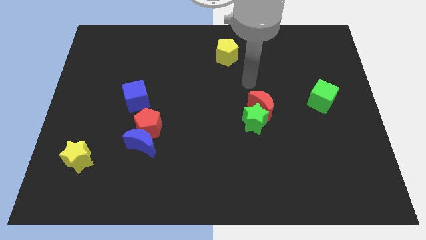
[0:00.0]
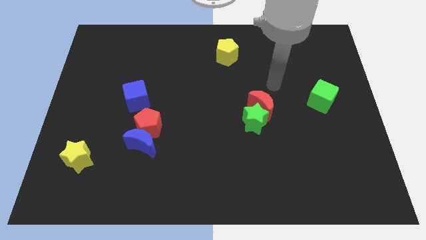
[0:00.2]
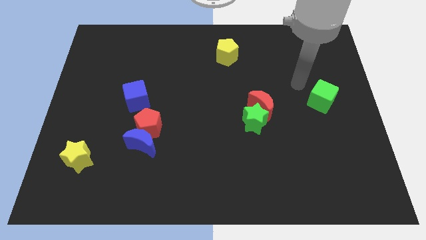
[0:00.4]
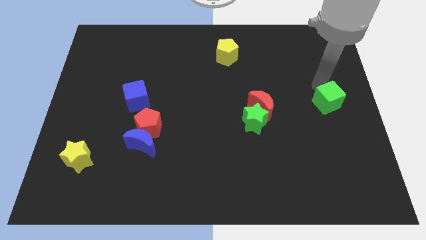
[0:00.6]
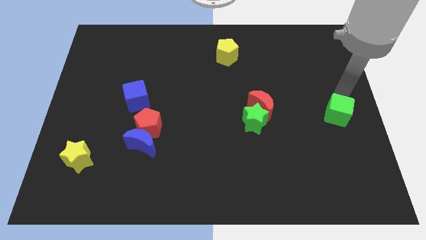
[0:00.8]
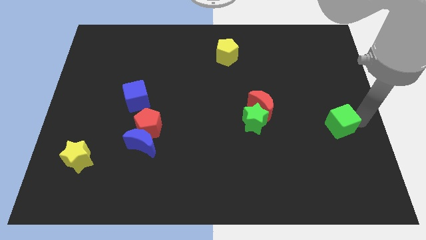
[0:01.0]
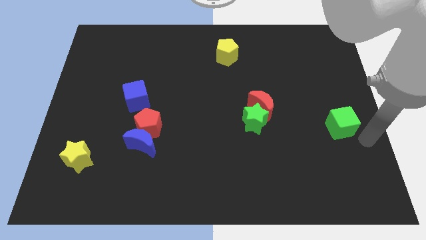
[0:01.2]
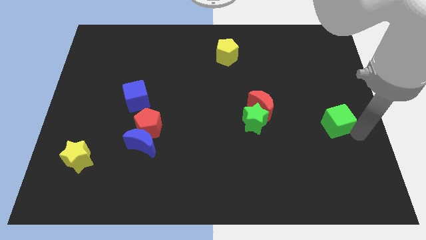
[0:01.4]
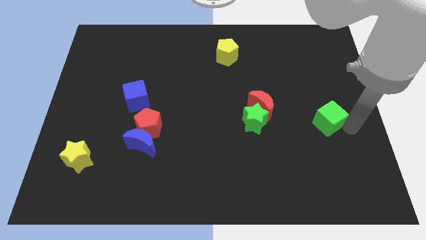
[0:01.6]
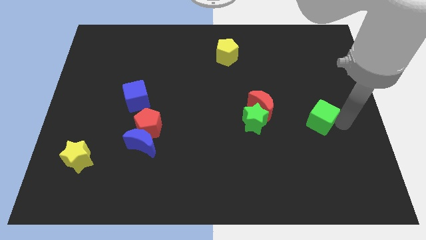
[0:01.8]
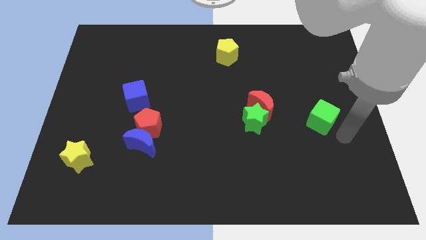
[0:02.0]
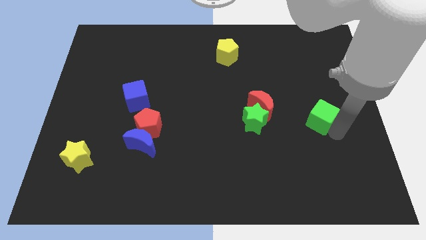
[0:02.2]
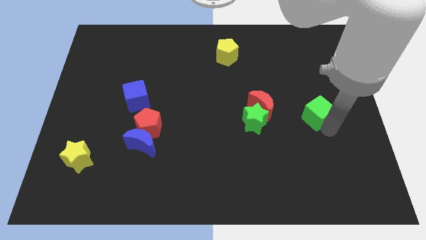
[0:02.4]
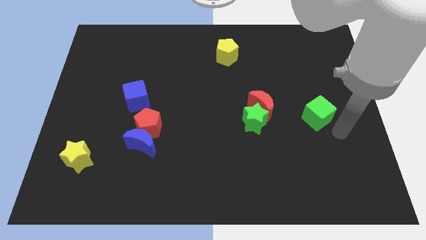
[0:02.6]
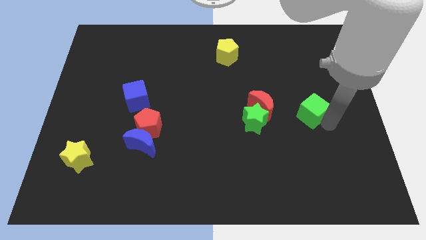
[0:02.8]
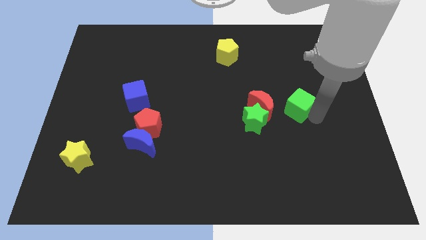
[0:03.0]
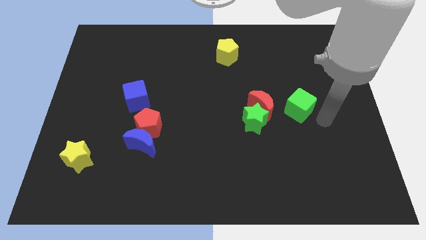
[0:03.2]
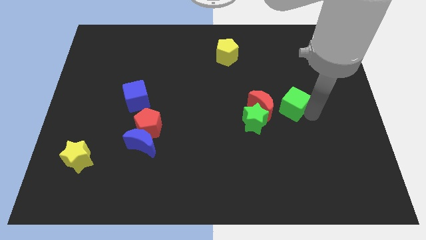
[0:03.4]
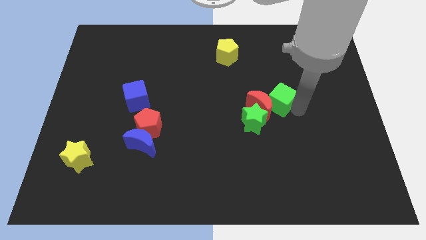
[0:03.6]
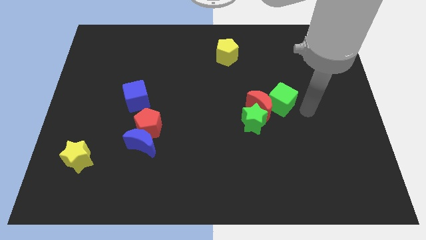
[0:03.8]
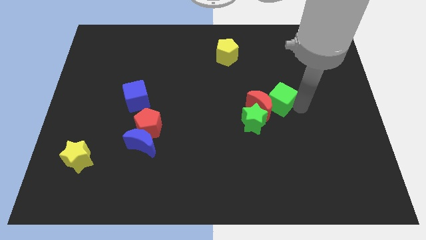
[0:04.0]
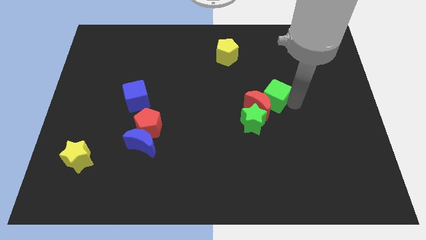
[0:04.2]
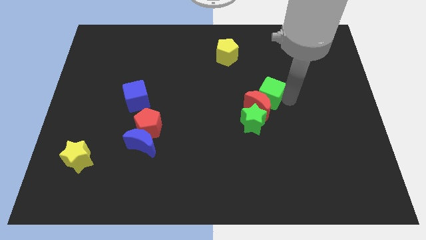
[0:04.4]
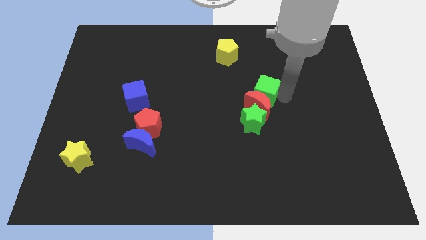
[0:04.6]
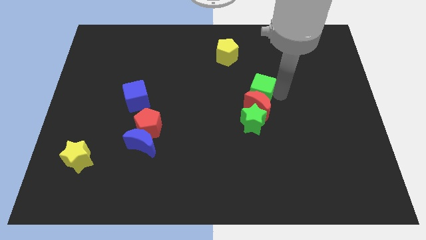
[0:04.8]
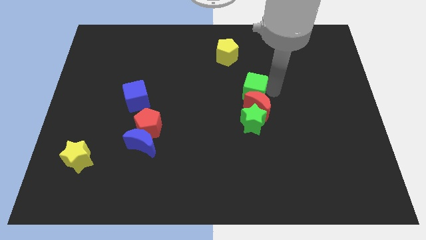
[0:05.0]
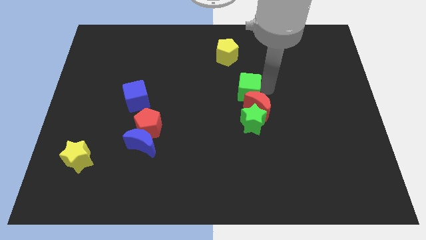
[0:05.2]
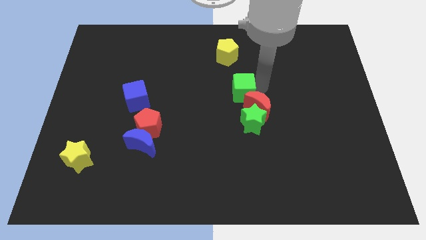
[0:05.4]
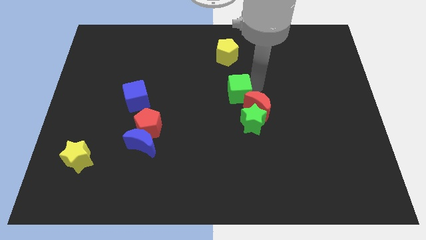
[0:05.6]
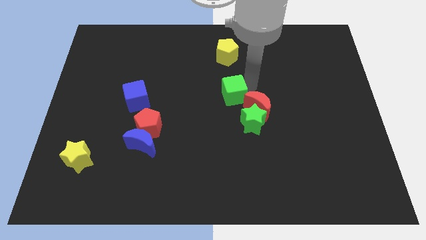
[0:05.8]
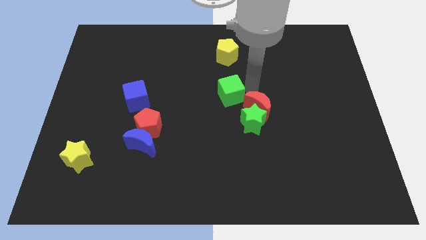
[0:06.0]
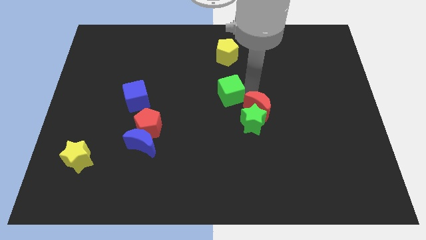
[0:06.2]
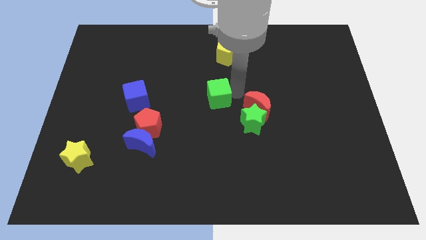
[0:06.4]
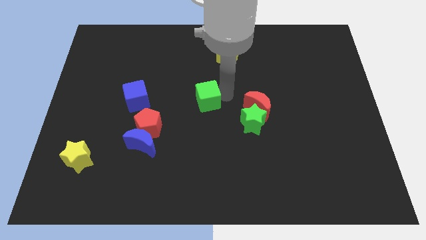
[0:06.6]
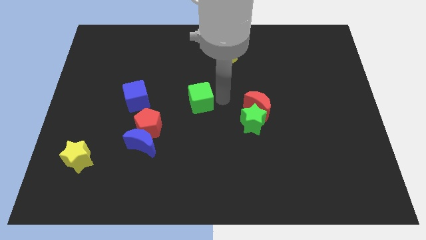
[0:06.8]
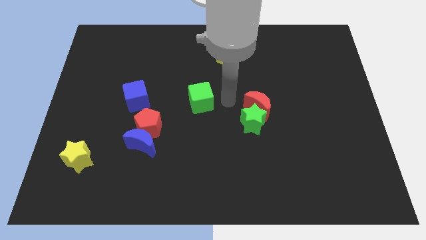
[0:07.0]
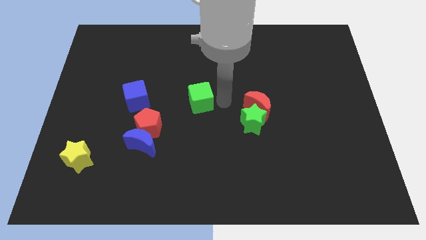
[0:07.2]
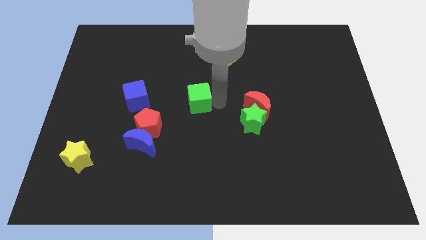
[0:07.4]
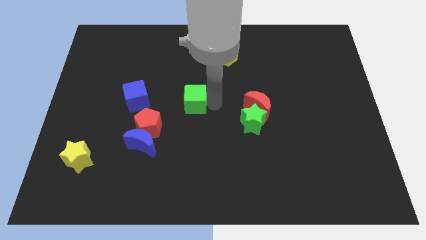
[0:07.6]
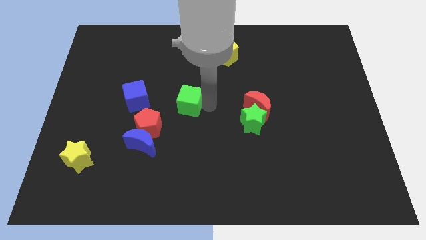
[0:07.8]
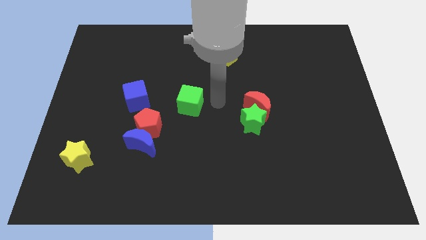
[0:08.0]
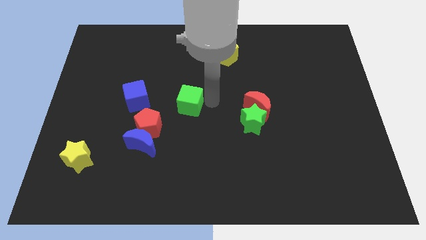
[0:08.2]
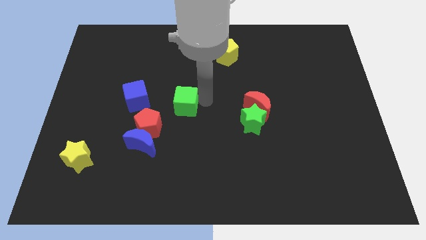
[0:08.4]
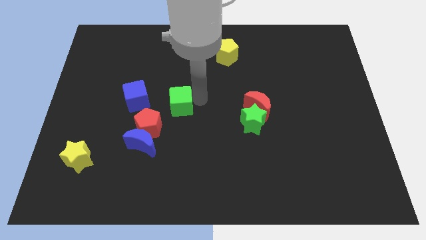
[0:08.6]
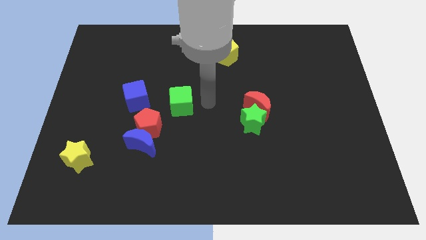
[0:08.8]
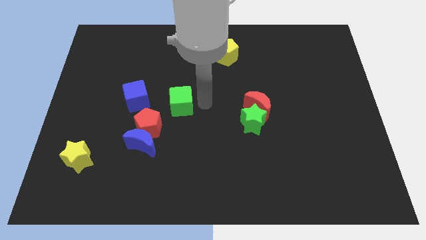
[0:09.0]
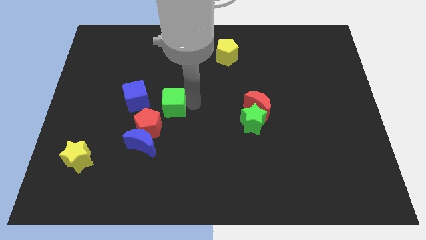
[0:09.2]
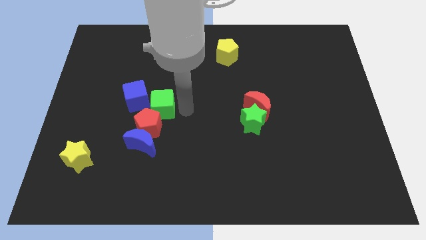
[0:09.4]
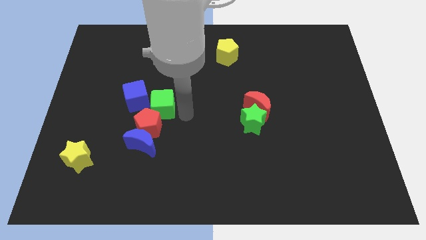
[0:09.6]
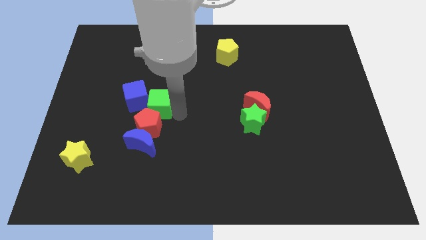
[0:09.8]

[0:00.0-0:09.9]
push the green cube to the blue cube

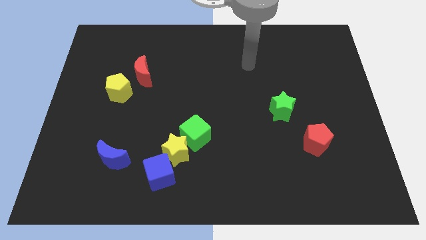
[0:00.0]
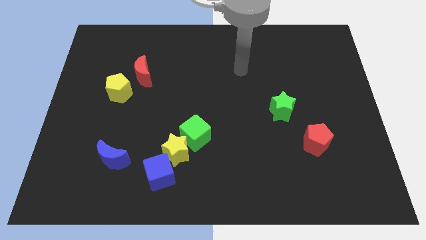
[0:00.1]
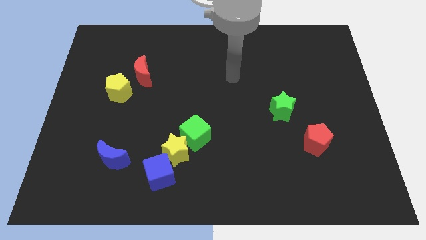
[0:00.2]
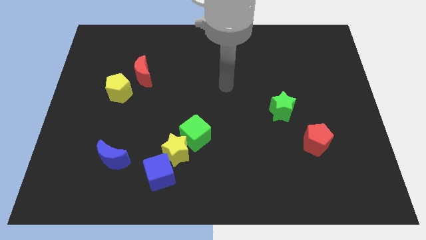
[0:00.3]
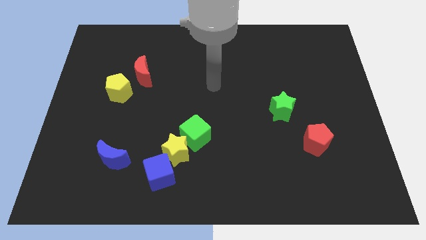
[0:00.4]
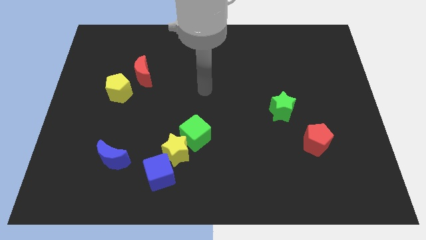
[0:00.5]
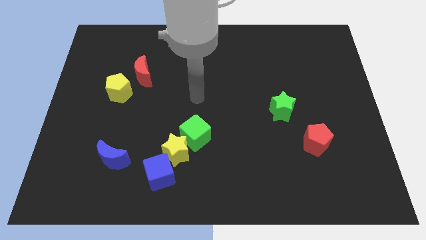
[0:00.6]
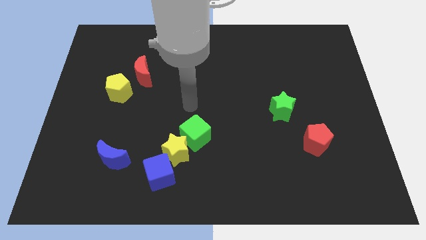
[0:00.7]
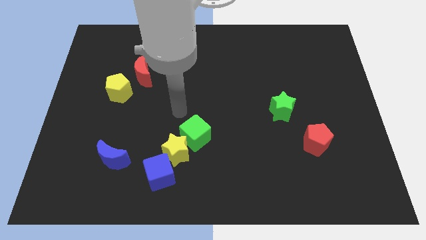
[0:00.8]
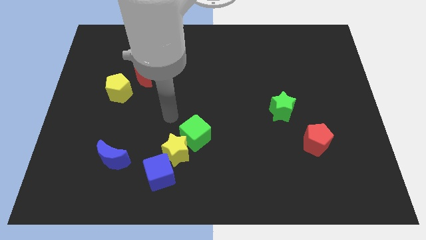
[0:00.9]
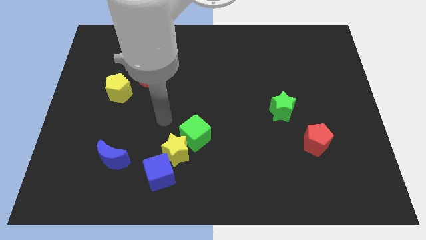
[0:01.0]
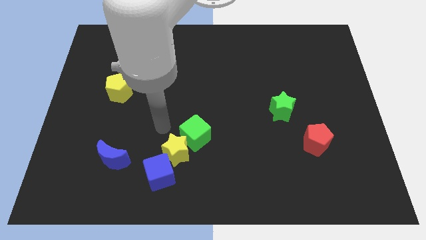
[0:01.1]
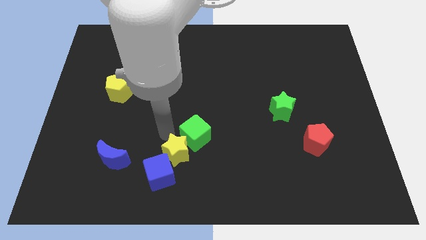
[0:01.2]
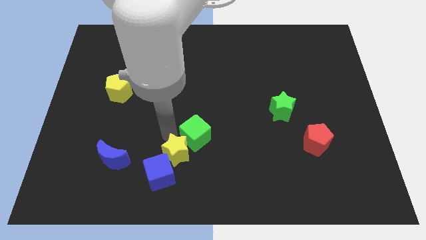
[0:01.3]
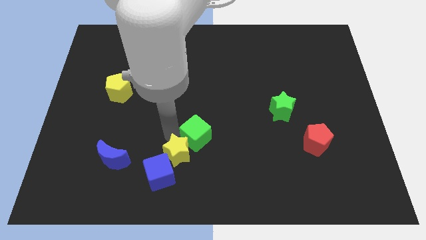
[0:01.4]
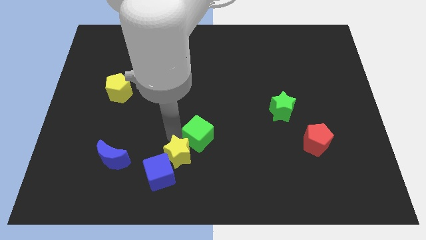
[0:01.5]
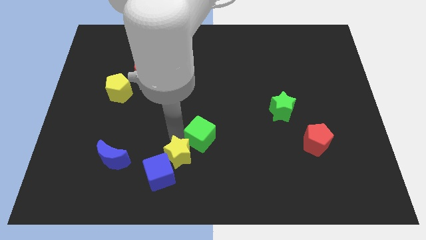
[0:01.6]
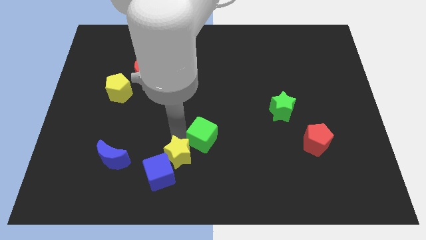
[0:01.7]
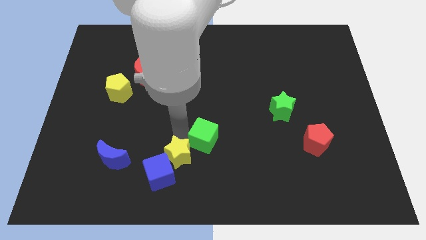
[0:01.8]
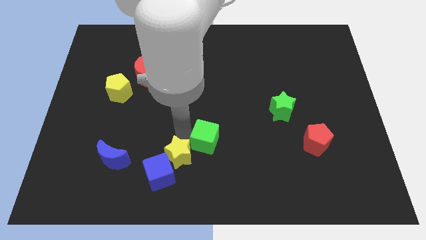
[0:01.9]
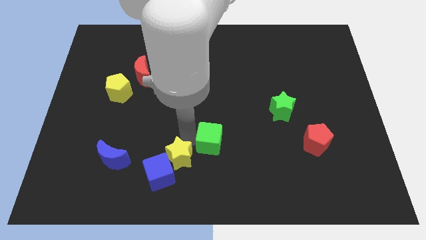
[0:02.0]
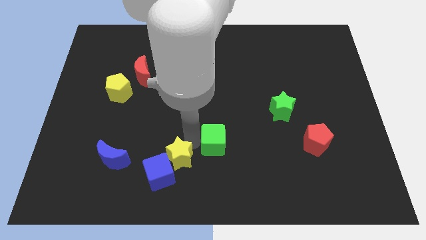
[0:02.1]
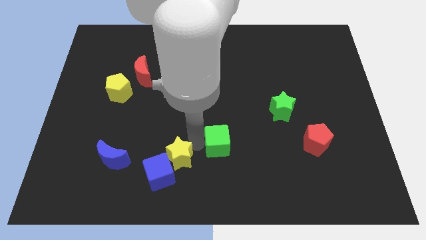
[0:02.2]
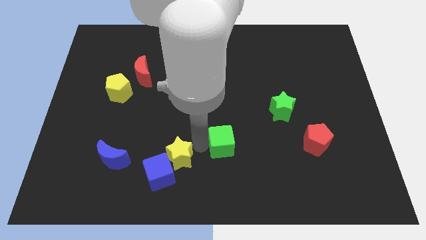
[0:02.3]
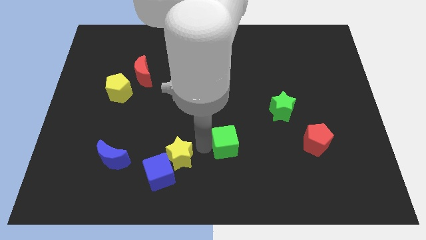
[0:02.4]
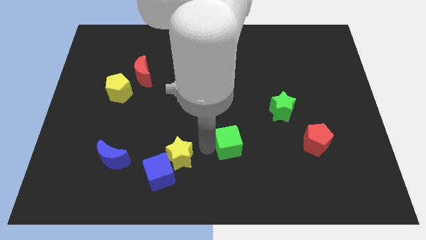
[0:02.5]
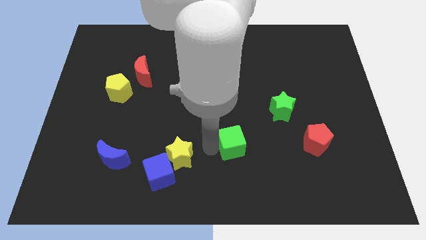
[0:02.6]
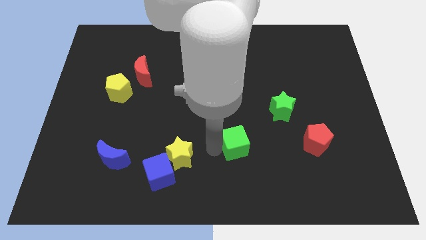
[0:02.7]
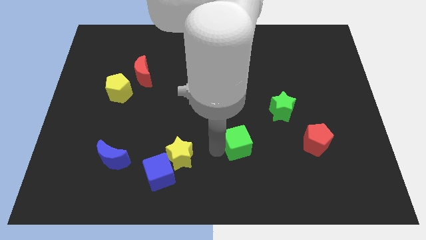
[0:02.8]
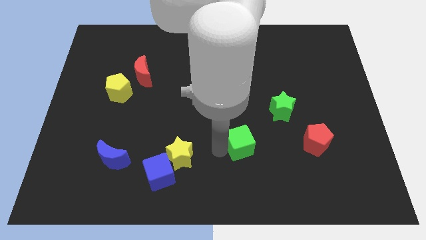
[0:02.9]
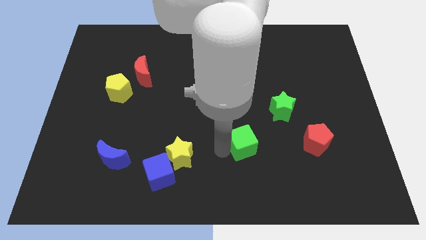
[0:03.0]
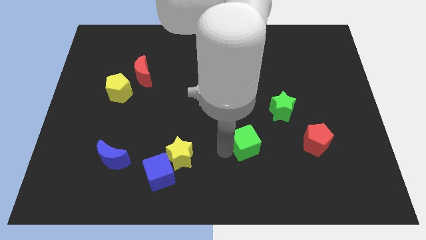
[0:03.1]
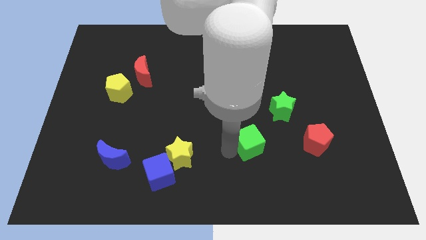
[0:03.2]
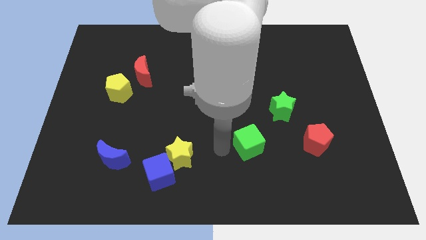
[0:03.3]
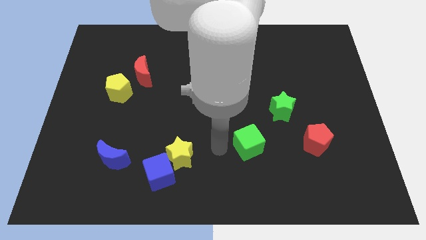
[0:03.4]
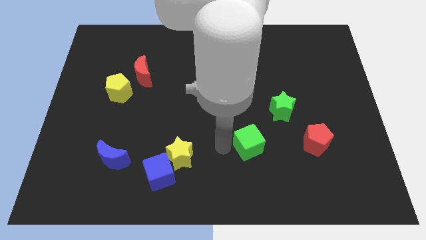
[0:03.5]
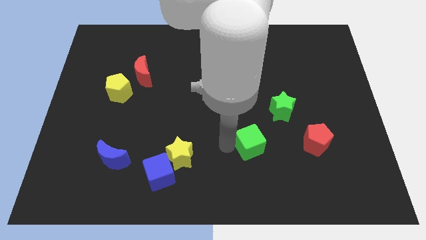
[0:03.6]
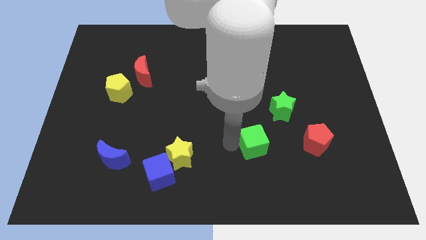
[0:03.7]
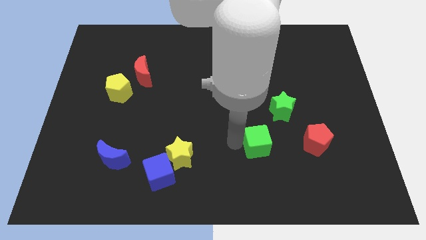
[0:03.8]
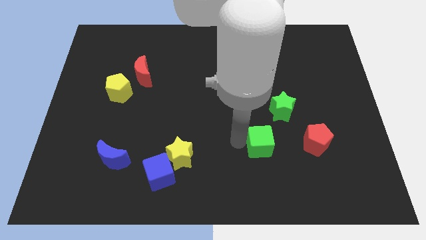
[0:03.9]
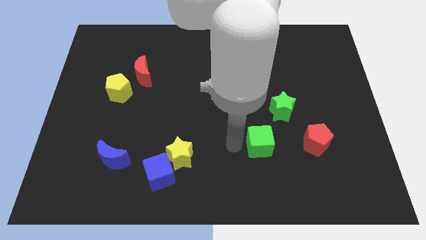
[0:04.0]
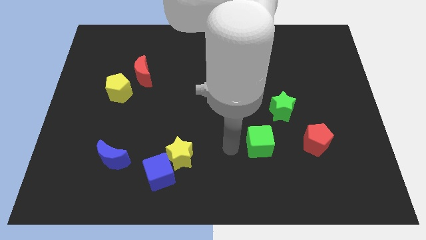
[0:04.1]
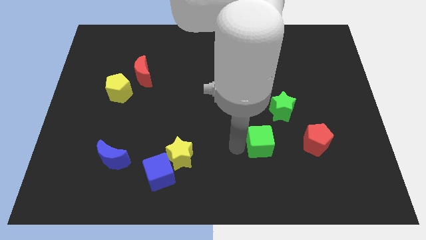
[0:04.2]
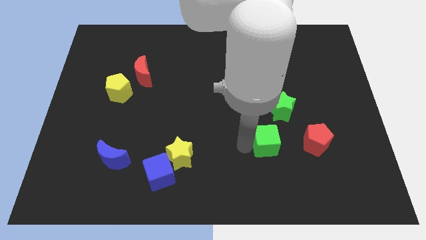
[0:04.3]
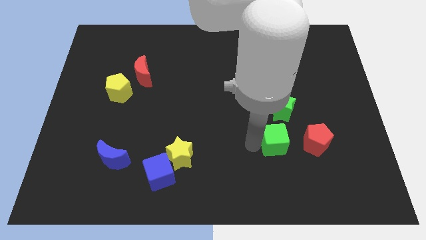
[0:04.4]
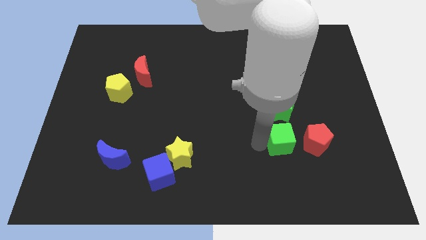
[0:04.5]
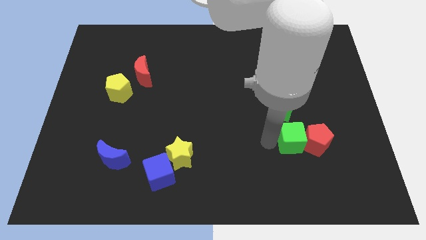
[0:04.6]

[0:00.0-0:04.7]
put the green cube to the red pentagon
